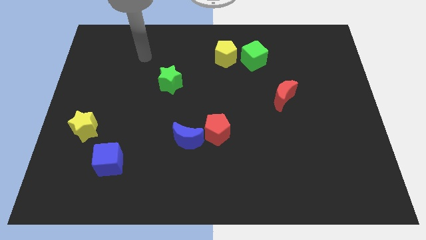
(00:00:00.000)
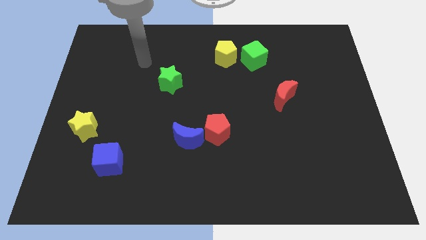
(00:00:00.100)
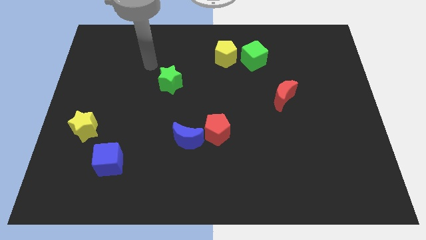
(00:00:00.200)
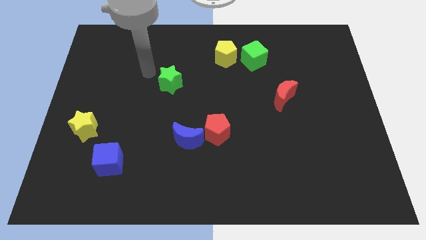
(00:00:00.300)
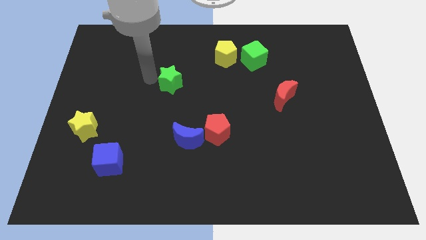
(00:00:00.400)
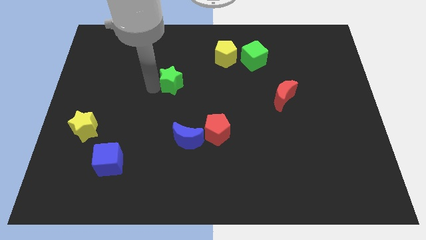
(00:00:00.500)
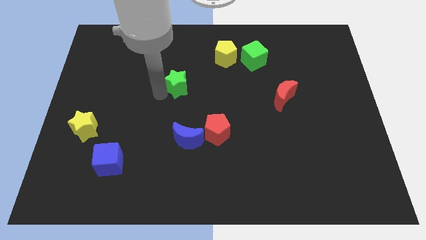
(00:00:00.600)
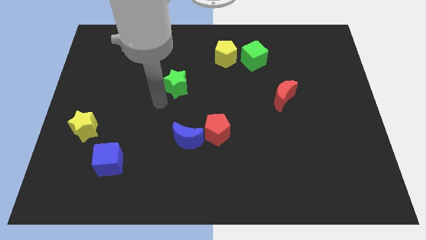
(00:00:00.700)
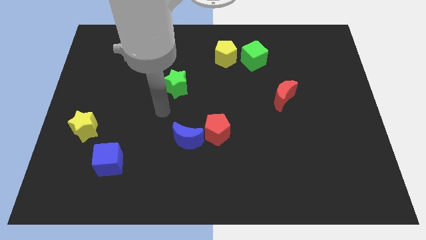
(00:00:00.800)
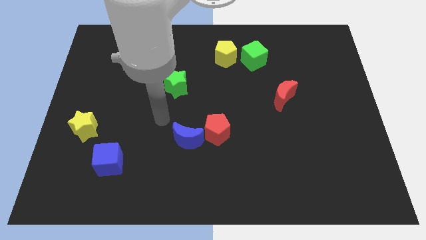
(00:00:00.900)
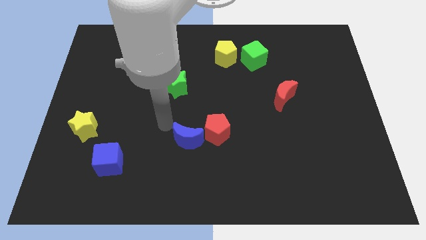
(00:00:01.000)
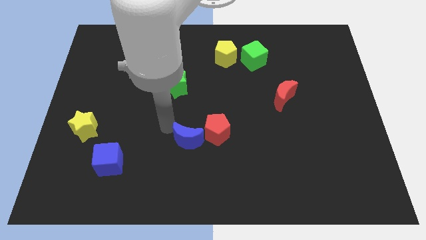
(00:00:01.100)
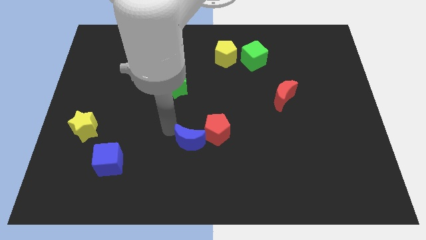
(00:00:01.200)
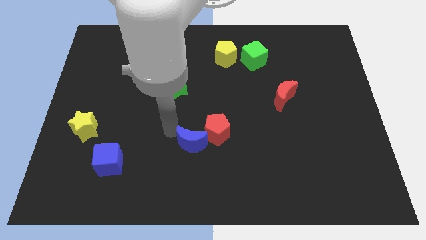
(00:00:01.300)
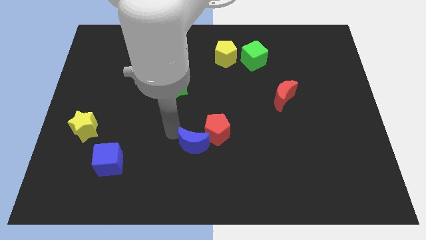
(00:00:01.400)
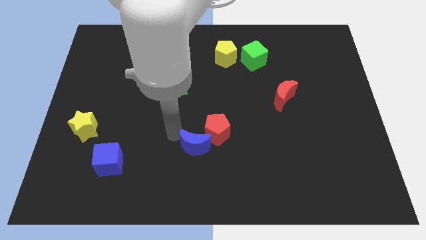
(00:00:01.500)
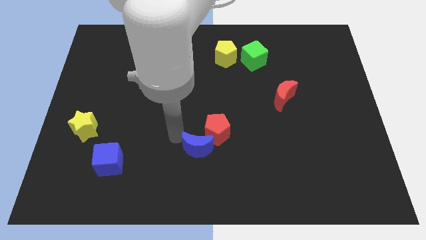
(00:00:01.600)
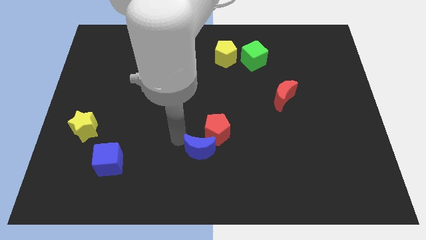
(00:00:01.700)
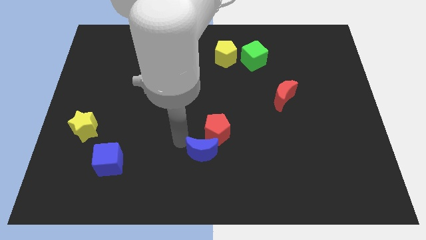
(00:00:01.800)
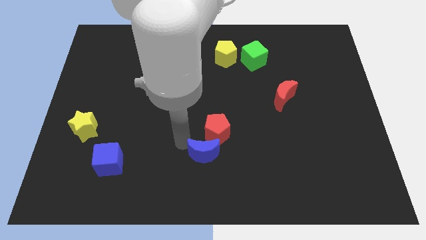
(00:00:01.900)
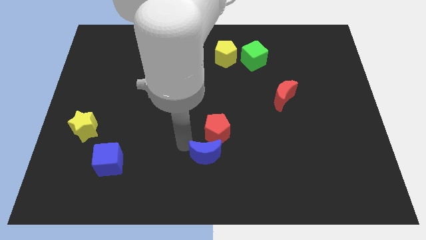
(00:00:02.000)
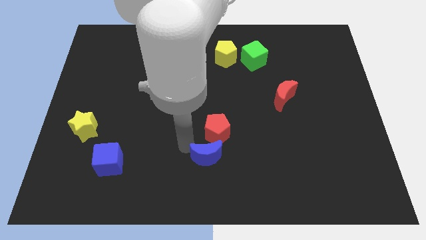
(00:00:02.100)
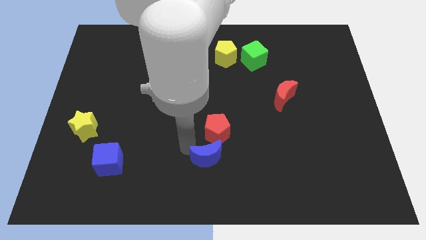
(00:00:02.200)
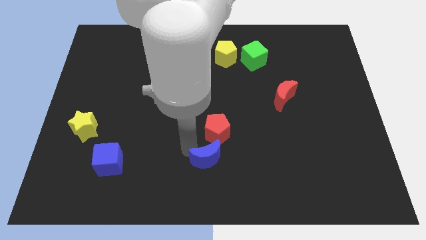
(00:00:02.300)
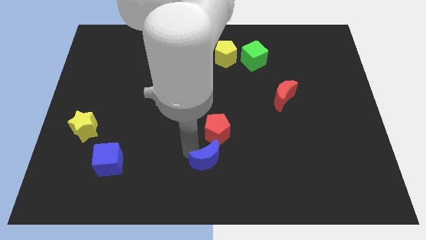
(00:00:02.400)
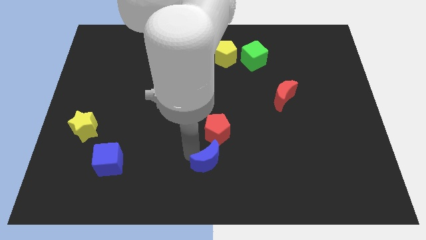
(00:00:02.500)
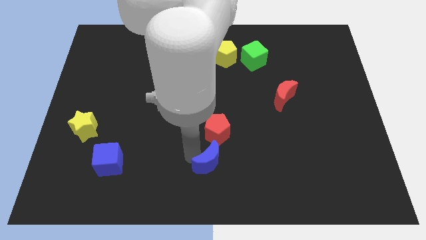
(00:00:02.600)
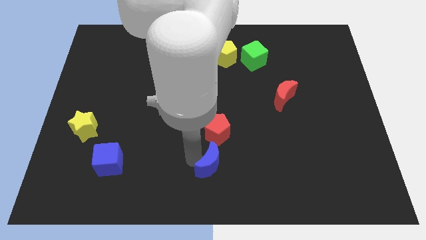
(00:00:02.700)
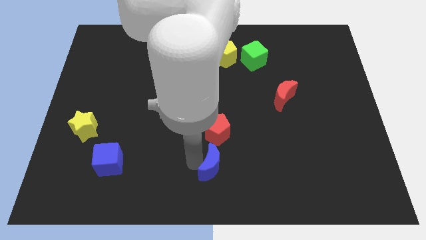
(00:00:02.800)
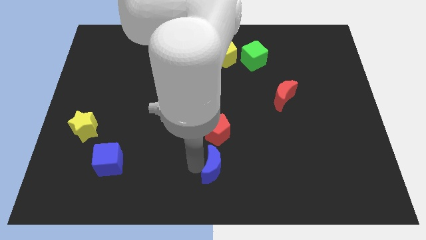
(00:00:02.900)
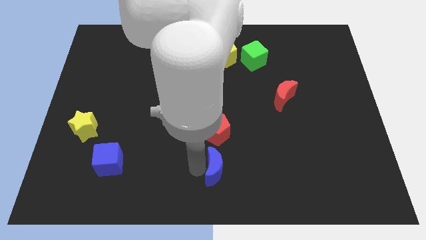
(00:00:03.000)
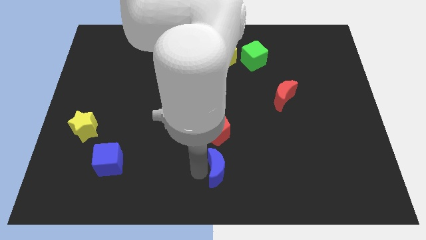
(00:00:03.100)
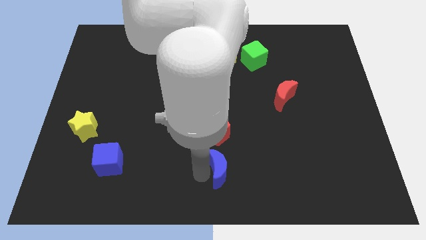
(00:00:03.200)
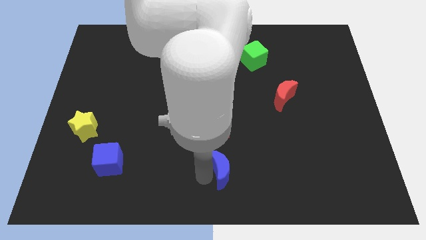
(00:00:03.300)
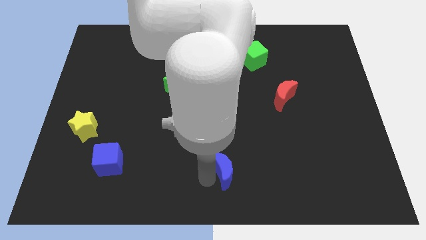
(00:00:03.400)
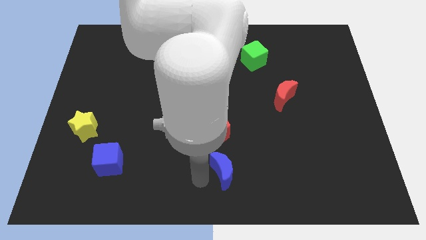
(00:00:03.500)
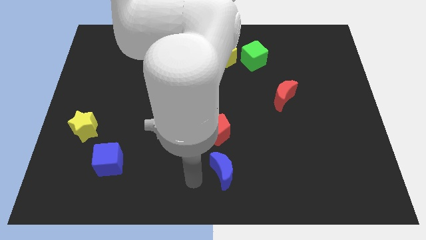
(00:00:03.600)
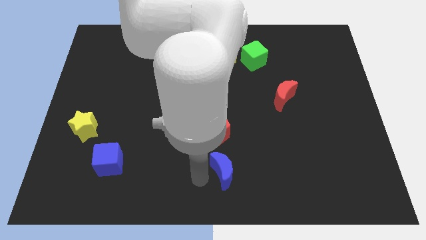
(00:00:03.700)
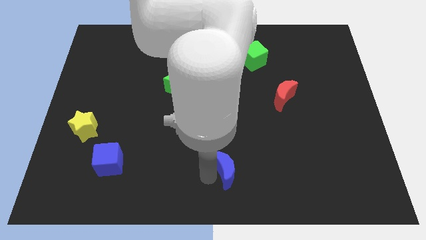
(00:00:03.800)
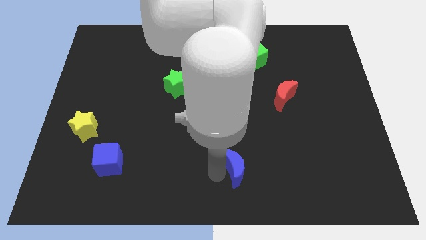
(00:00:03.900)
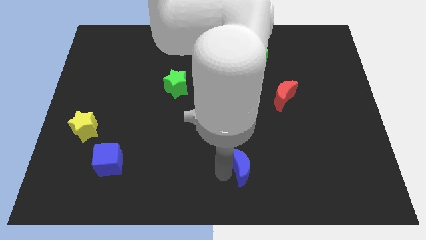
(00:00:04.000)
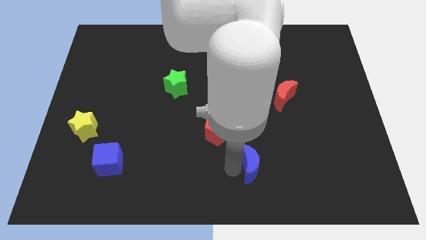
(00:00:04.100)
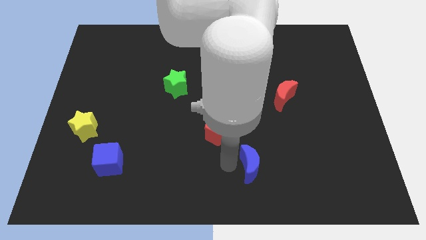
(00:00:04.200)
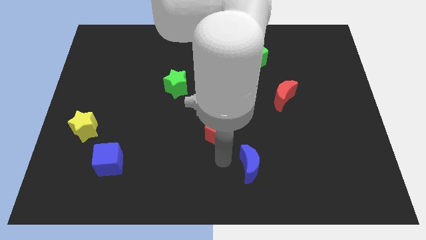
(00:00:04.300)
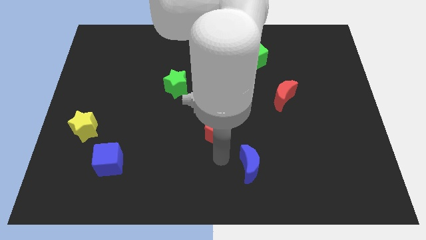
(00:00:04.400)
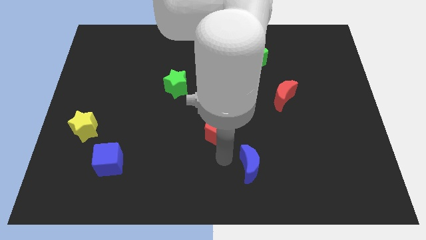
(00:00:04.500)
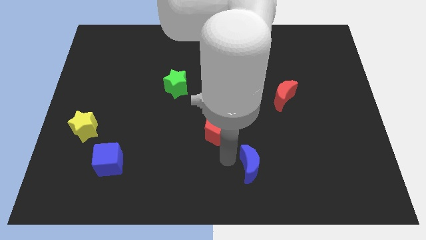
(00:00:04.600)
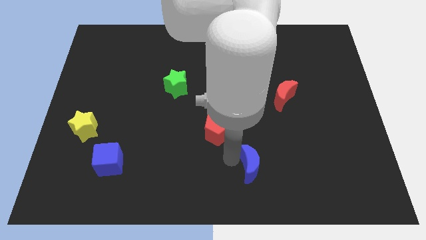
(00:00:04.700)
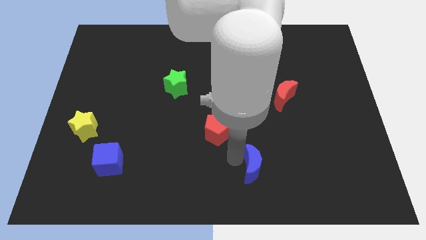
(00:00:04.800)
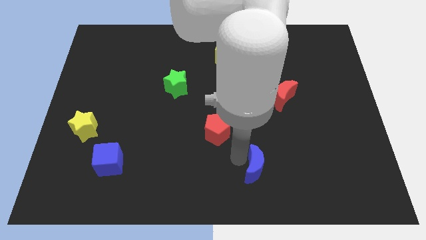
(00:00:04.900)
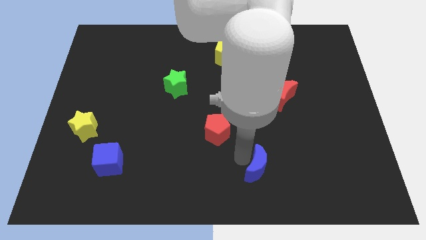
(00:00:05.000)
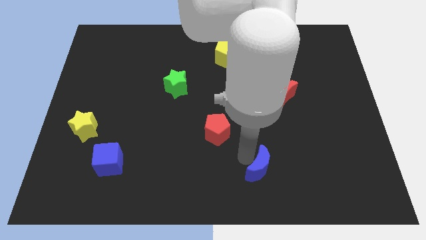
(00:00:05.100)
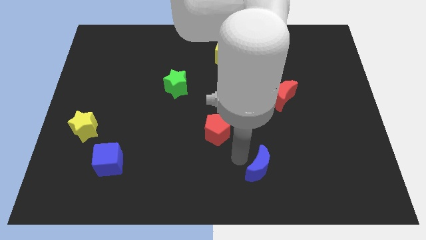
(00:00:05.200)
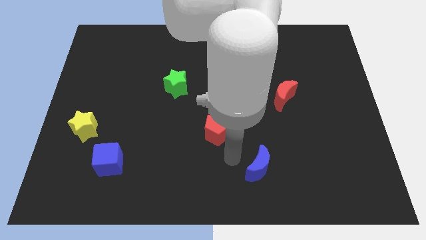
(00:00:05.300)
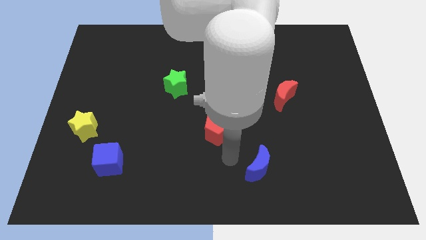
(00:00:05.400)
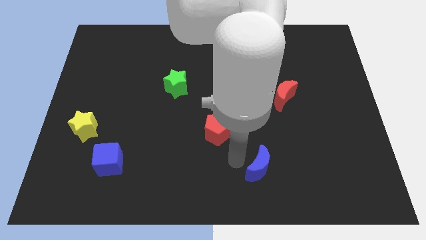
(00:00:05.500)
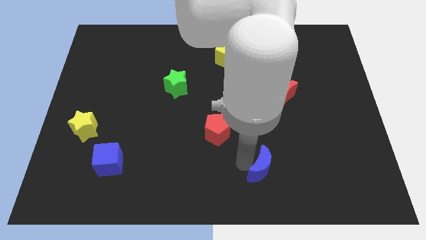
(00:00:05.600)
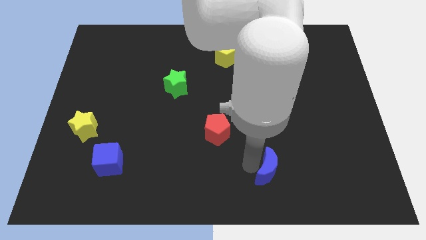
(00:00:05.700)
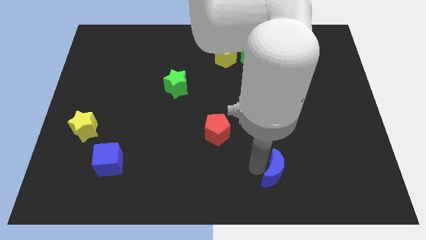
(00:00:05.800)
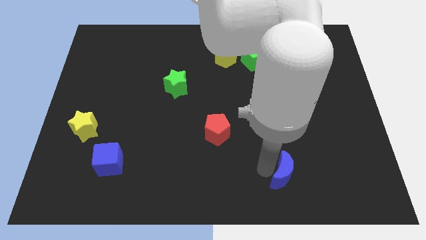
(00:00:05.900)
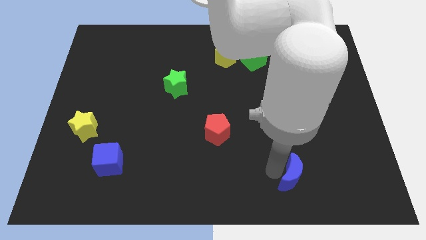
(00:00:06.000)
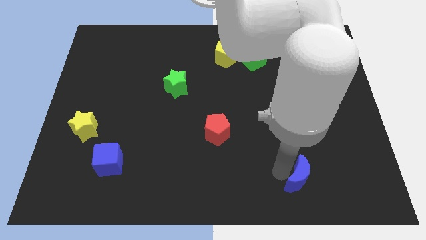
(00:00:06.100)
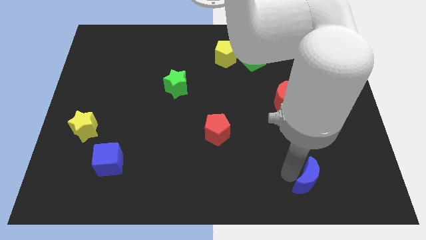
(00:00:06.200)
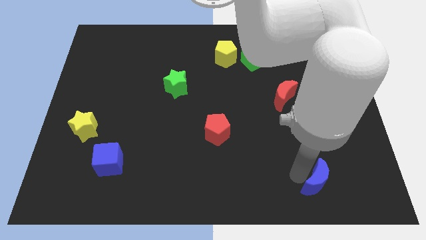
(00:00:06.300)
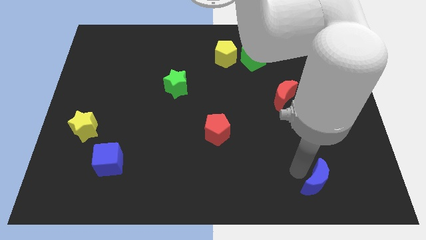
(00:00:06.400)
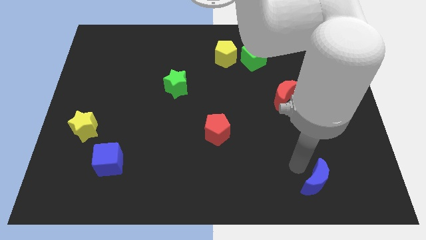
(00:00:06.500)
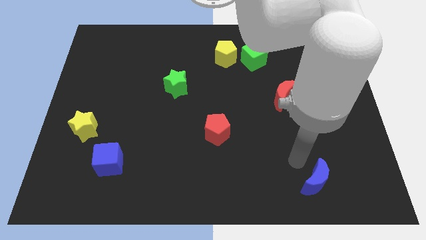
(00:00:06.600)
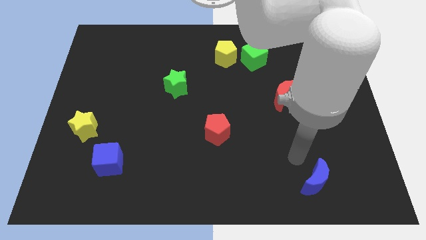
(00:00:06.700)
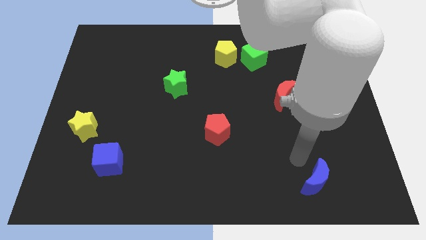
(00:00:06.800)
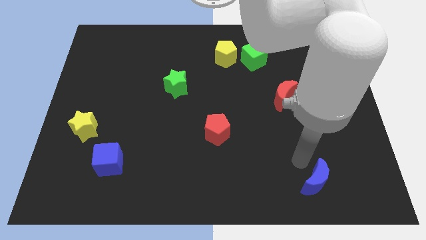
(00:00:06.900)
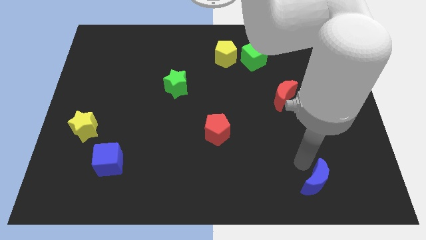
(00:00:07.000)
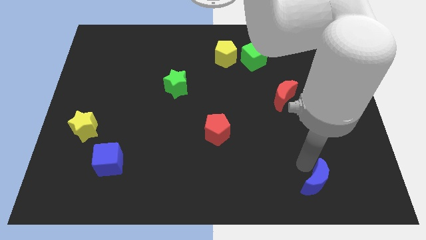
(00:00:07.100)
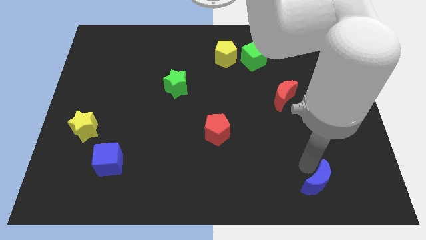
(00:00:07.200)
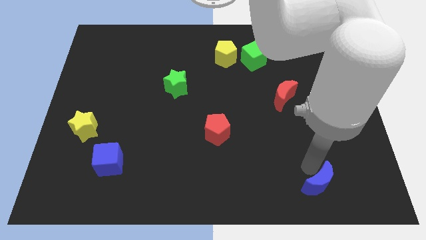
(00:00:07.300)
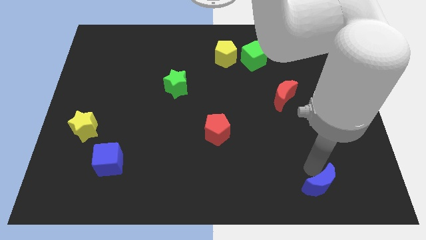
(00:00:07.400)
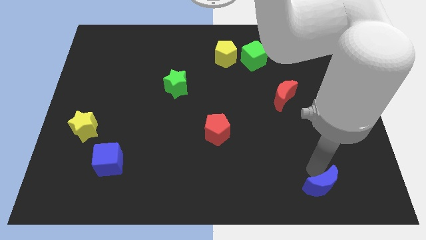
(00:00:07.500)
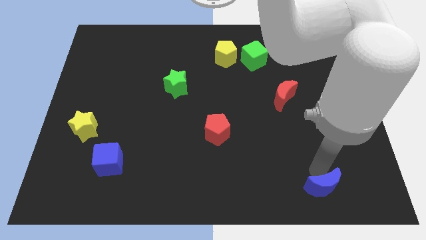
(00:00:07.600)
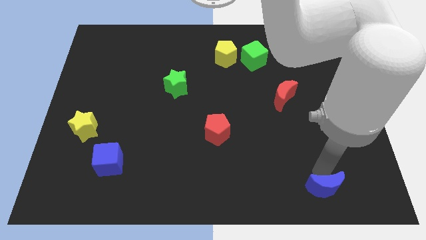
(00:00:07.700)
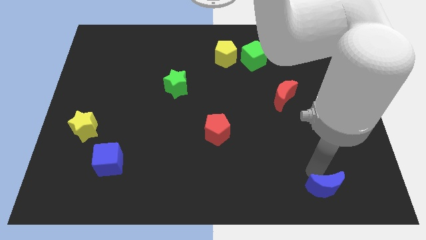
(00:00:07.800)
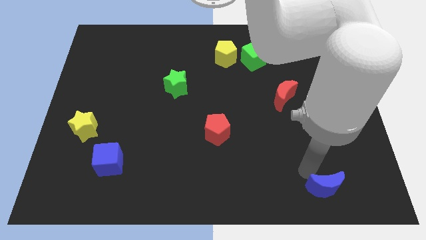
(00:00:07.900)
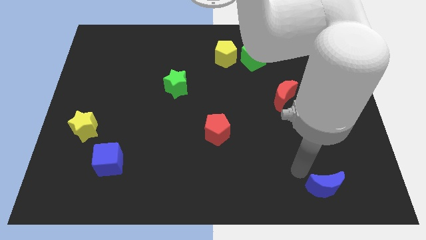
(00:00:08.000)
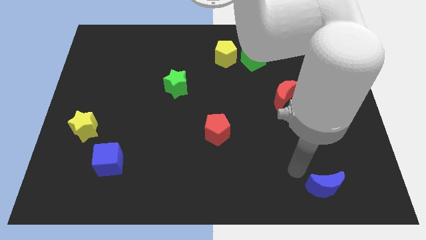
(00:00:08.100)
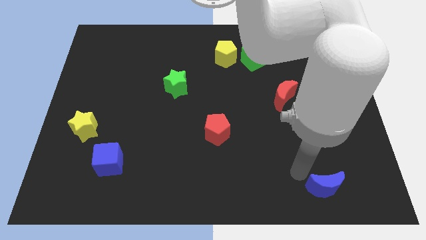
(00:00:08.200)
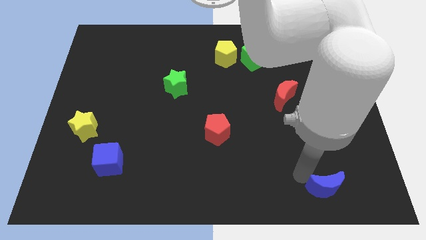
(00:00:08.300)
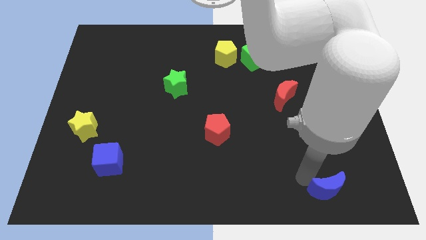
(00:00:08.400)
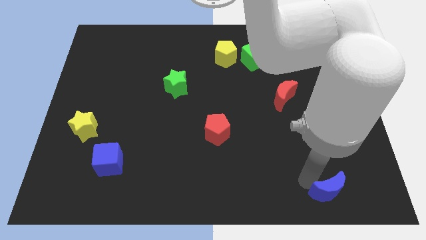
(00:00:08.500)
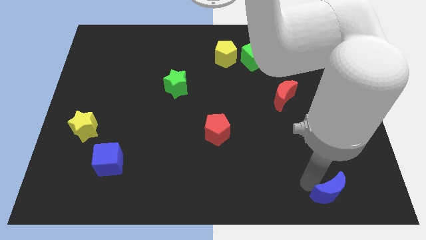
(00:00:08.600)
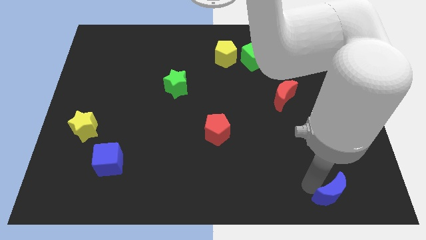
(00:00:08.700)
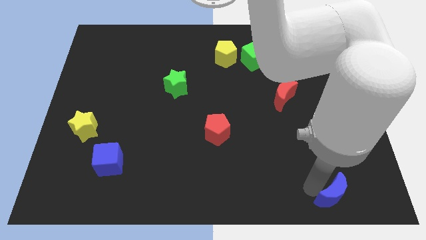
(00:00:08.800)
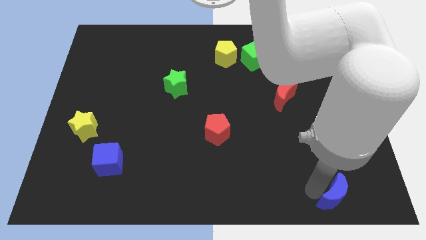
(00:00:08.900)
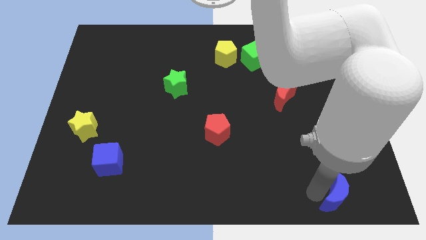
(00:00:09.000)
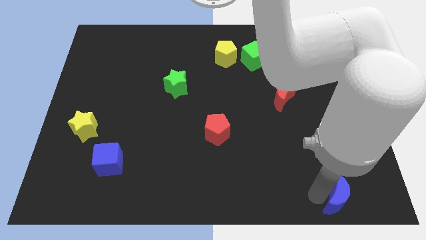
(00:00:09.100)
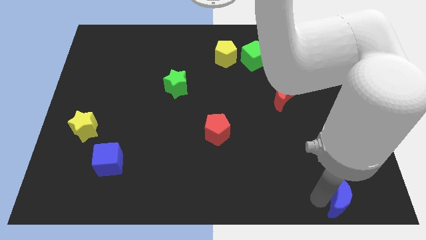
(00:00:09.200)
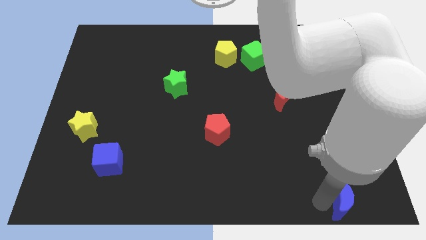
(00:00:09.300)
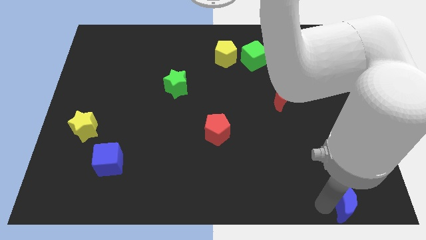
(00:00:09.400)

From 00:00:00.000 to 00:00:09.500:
put the blue moon to the lower right corner
